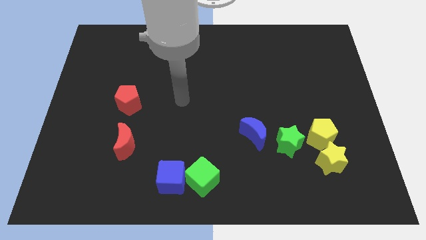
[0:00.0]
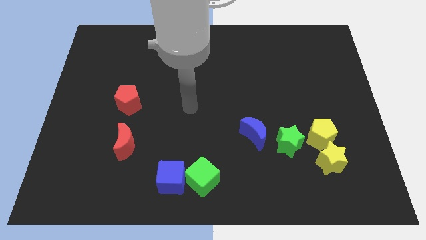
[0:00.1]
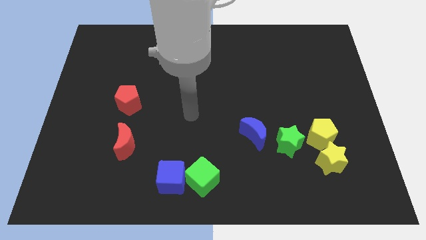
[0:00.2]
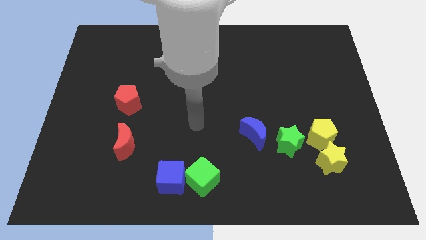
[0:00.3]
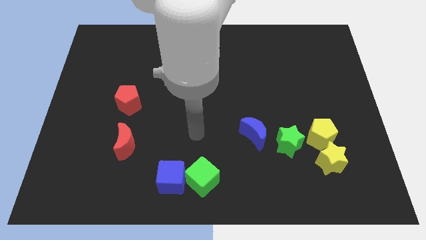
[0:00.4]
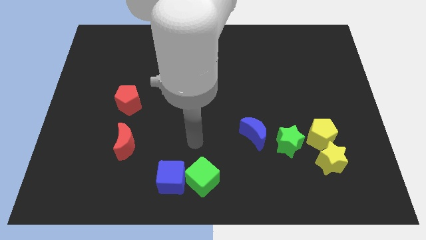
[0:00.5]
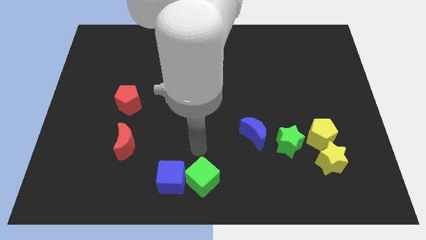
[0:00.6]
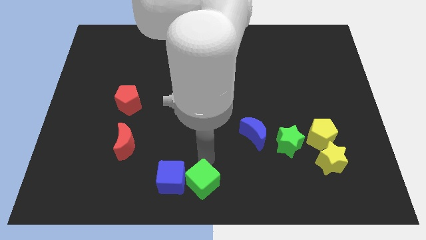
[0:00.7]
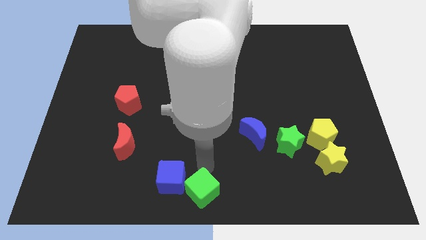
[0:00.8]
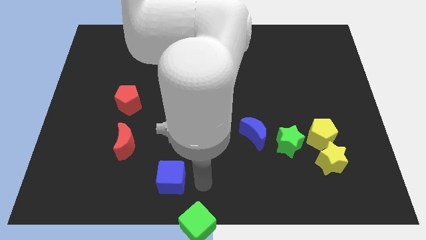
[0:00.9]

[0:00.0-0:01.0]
move the blue cube away from the green cube

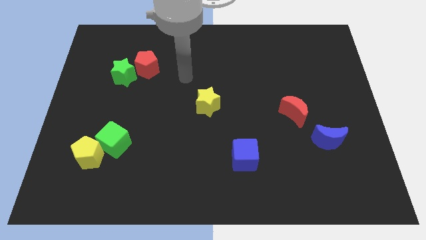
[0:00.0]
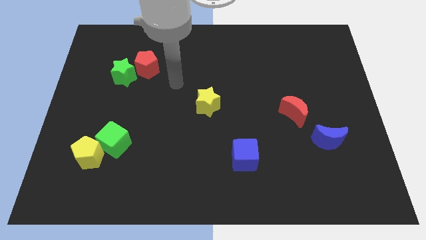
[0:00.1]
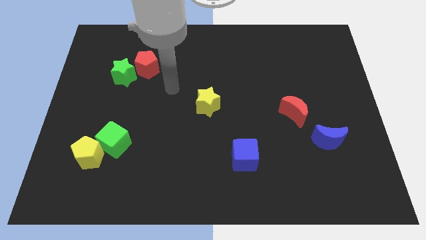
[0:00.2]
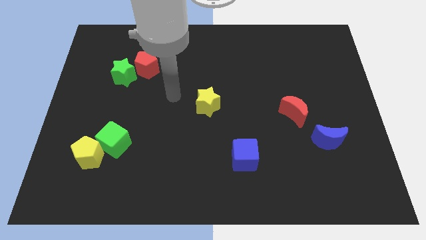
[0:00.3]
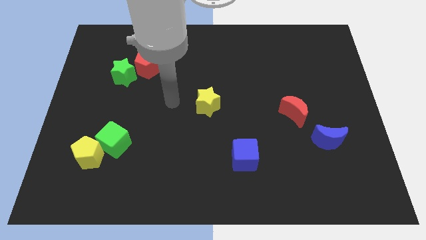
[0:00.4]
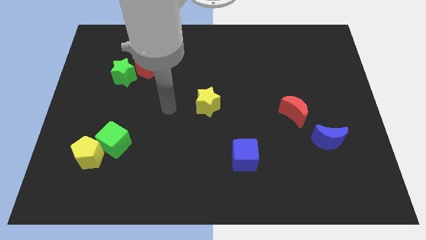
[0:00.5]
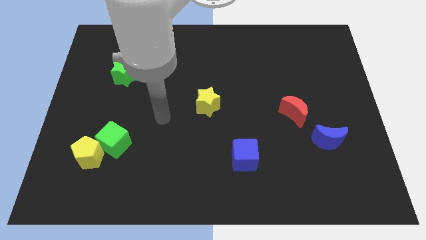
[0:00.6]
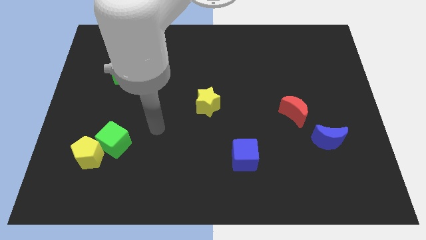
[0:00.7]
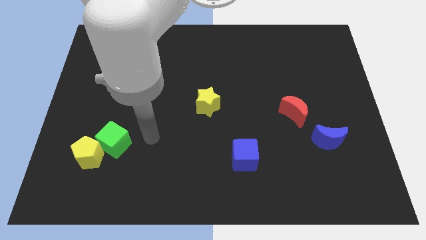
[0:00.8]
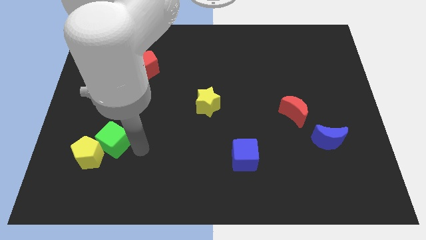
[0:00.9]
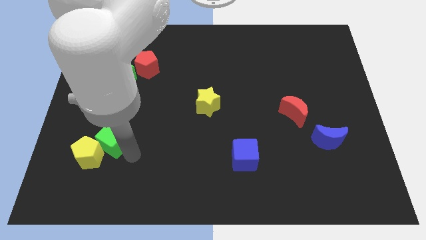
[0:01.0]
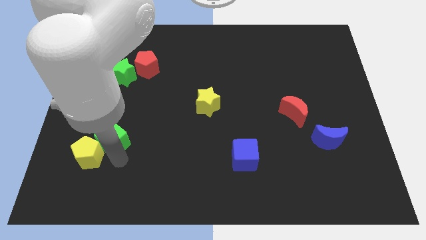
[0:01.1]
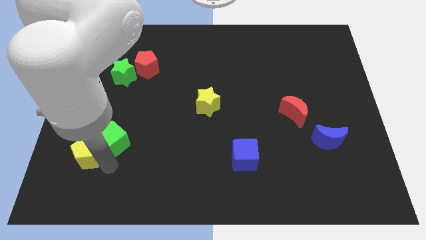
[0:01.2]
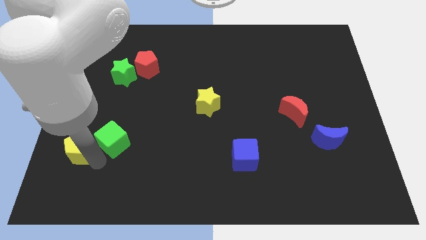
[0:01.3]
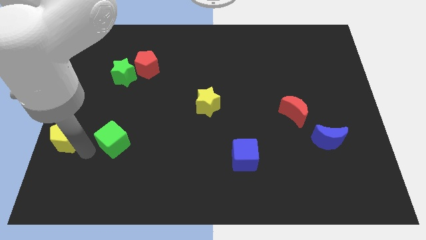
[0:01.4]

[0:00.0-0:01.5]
pull the green cube apart from the yellow pentagon

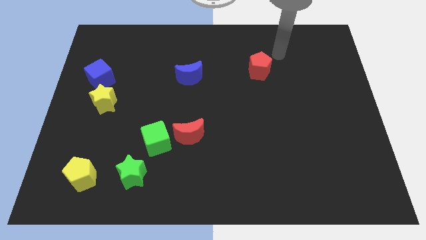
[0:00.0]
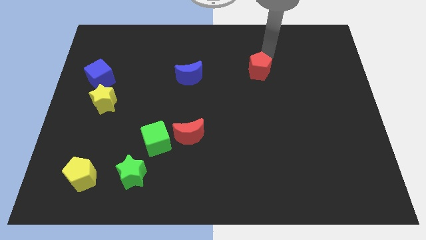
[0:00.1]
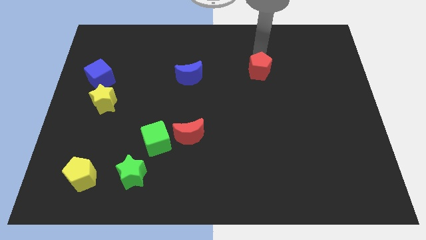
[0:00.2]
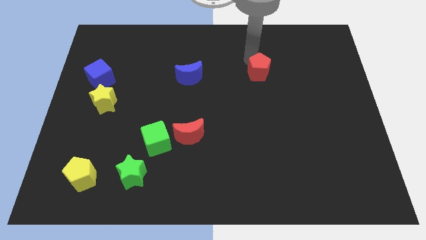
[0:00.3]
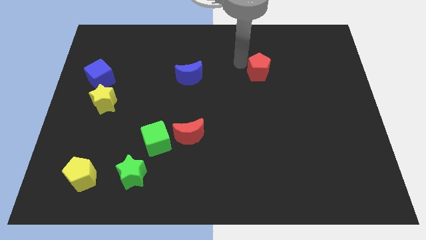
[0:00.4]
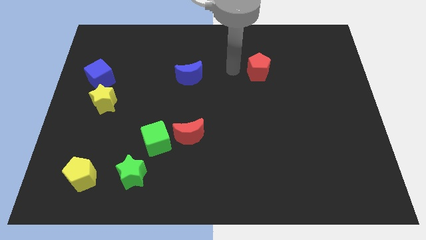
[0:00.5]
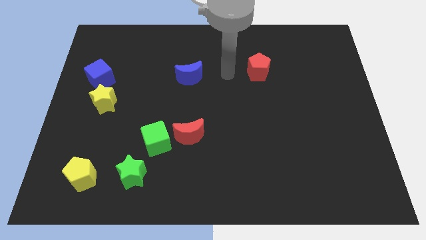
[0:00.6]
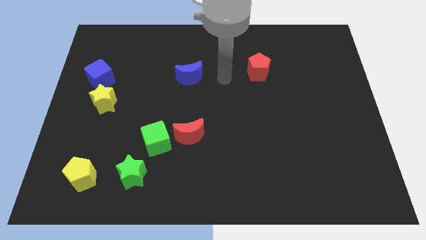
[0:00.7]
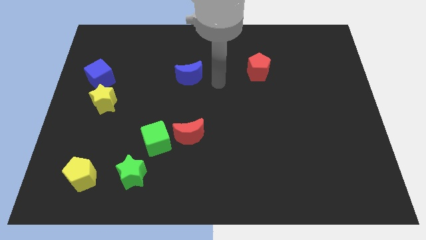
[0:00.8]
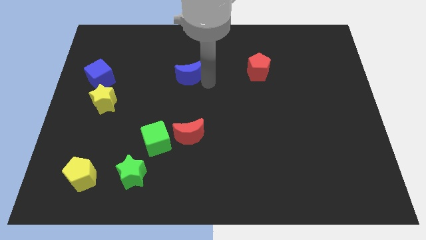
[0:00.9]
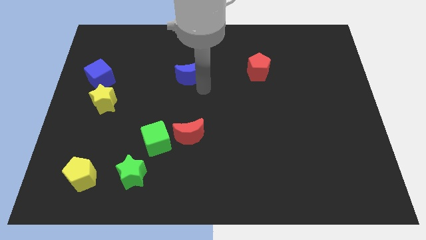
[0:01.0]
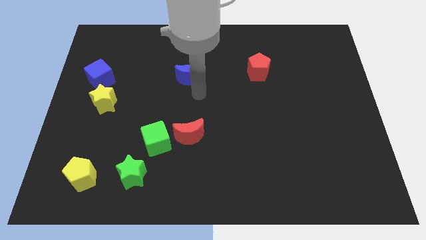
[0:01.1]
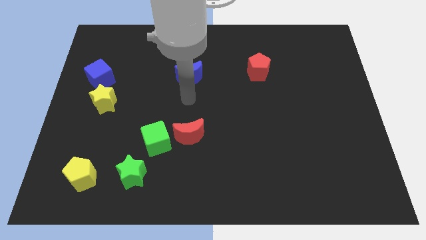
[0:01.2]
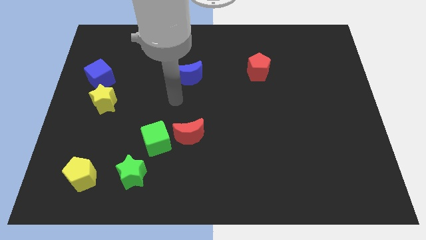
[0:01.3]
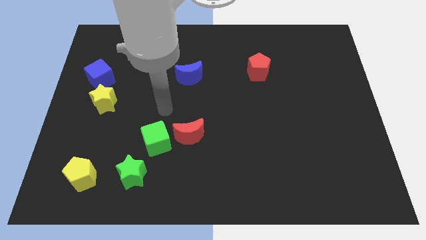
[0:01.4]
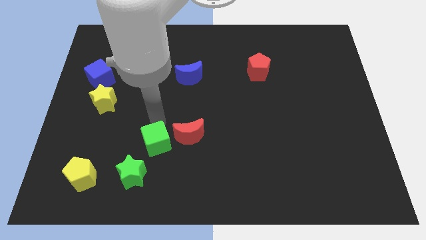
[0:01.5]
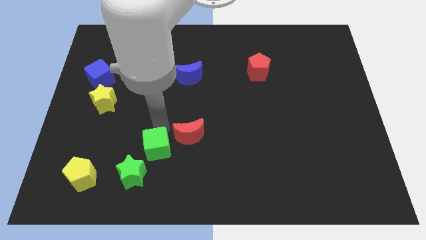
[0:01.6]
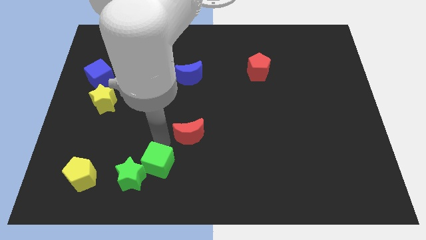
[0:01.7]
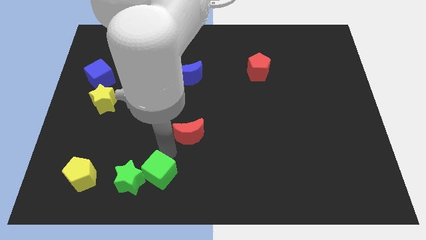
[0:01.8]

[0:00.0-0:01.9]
move the red moon away from the green cube

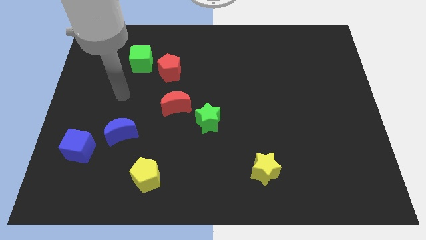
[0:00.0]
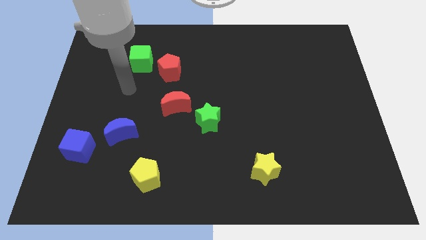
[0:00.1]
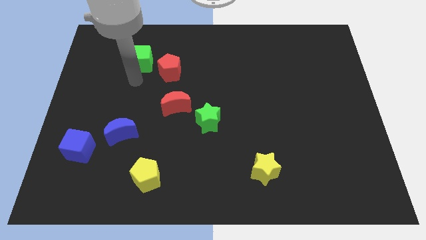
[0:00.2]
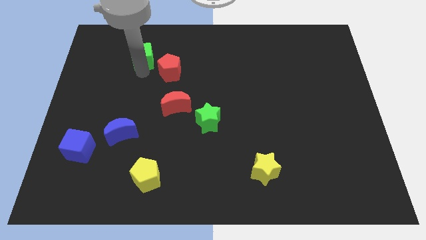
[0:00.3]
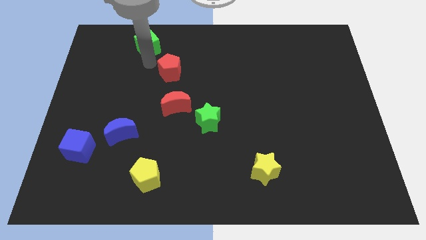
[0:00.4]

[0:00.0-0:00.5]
separate the red pentagon from the green cube

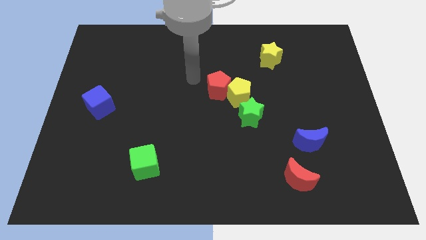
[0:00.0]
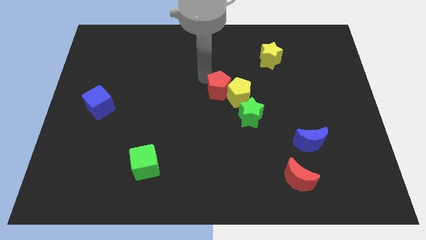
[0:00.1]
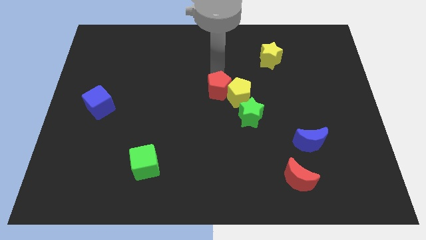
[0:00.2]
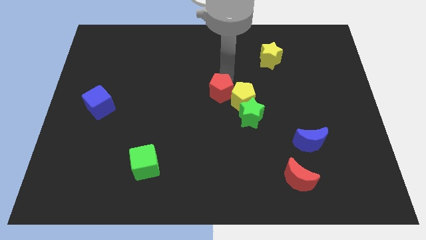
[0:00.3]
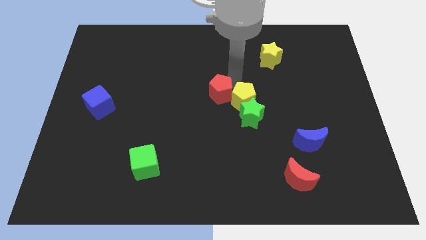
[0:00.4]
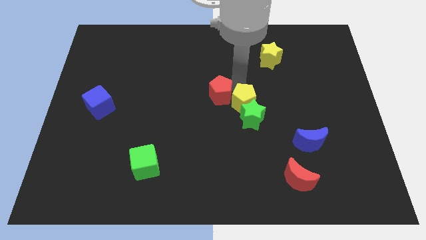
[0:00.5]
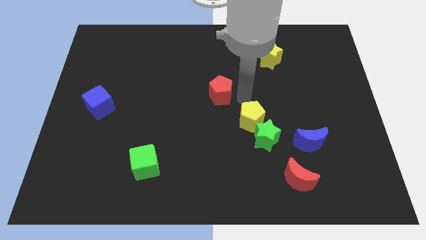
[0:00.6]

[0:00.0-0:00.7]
move the red pentagon away from the yellow pentagon

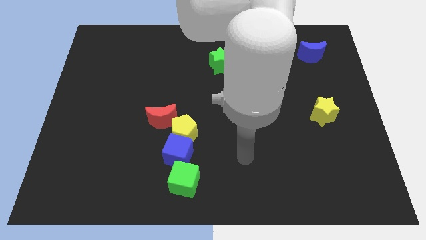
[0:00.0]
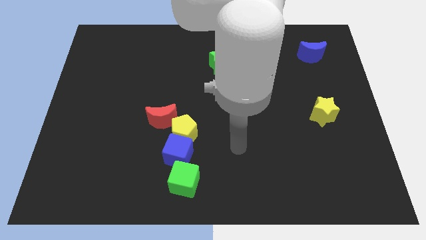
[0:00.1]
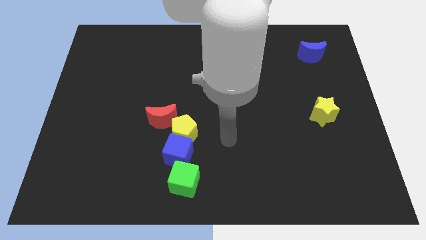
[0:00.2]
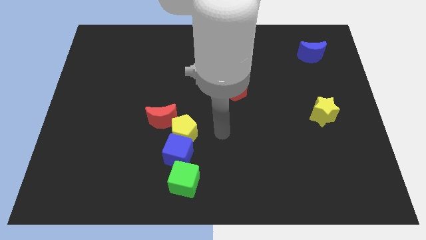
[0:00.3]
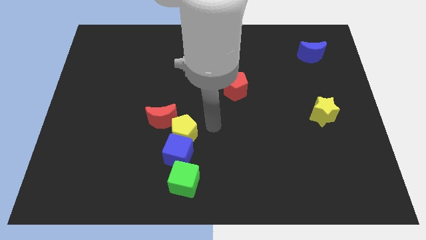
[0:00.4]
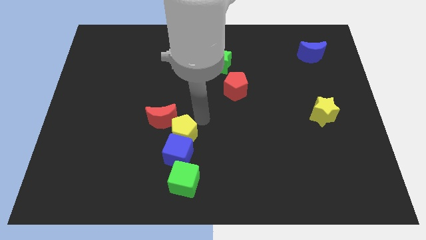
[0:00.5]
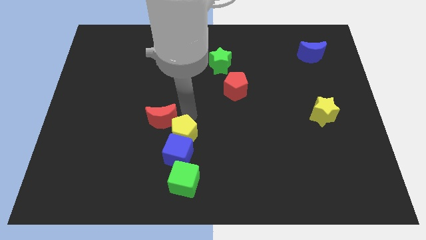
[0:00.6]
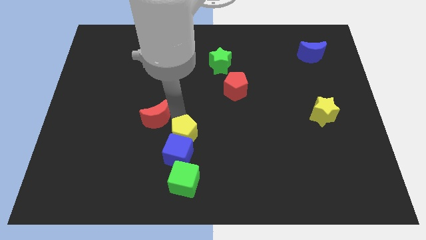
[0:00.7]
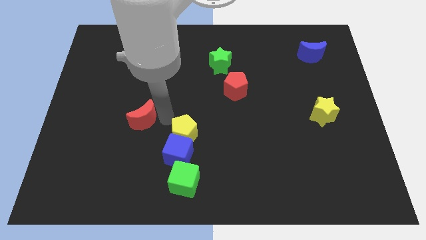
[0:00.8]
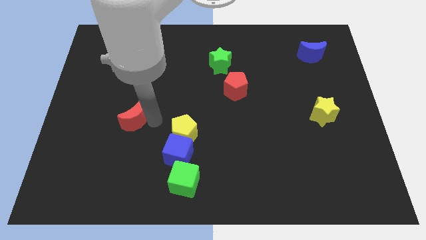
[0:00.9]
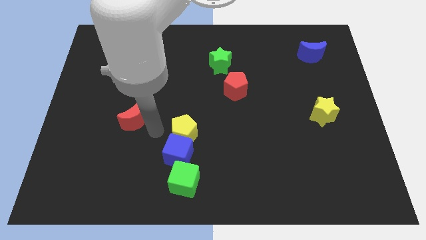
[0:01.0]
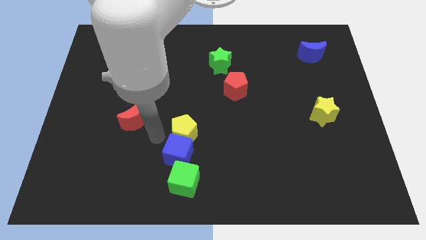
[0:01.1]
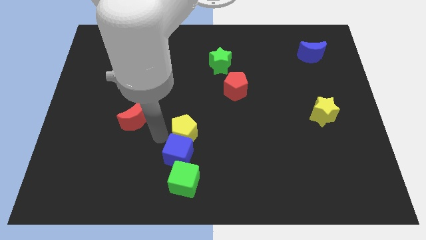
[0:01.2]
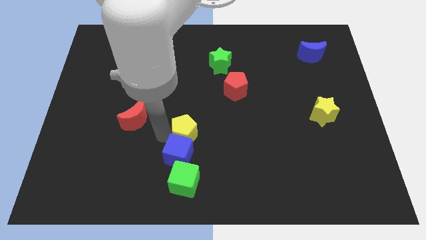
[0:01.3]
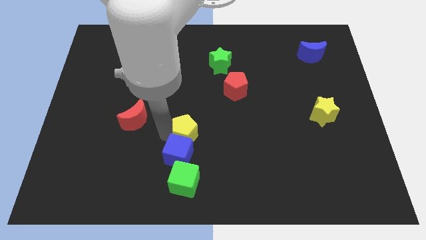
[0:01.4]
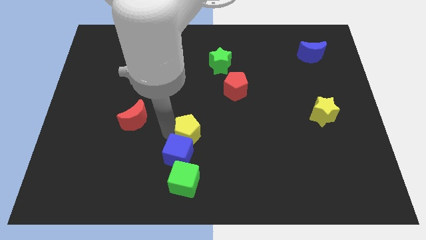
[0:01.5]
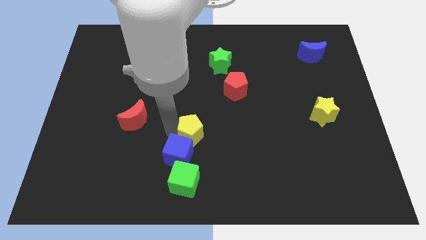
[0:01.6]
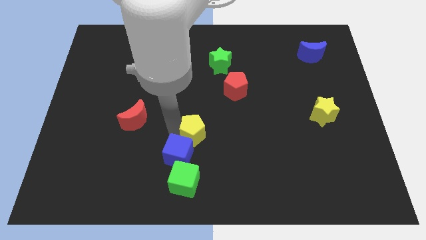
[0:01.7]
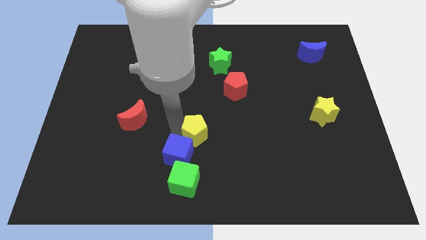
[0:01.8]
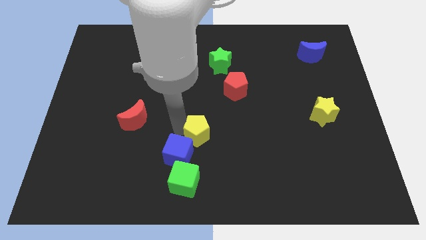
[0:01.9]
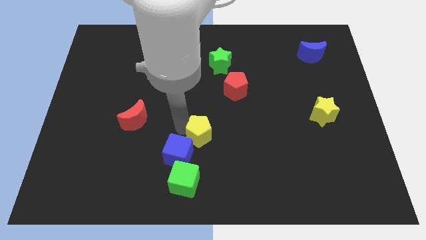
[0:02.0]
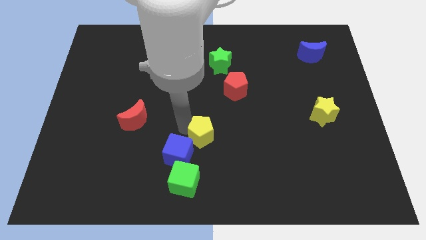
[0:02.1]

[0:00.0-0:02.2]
move the yellow pentagon away from the blue cube and red moon

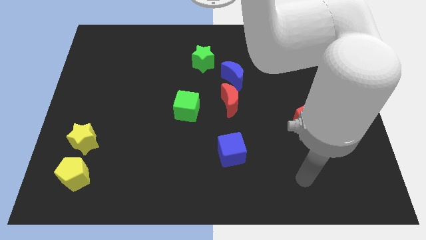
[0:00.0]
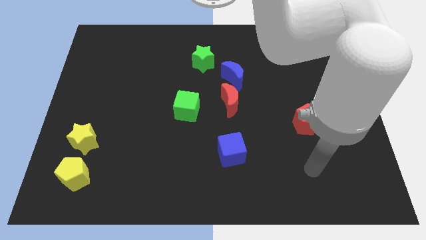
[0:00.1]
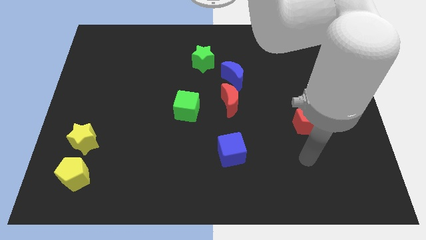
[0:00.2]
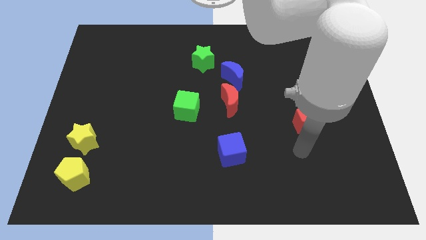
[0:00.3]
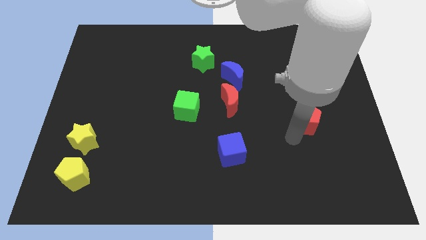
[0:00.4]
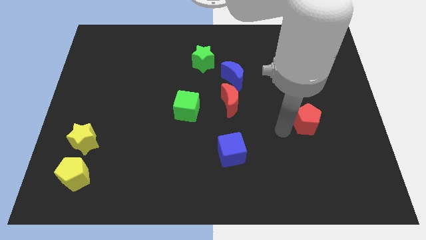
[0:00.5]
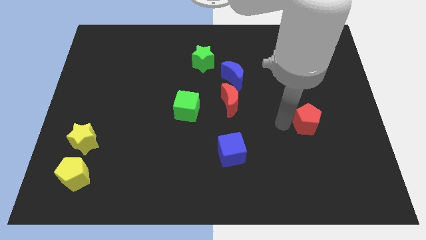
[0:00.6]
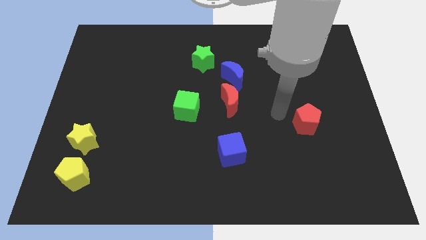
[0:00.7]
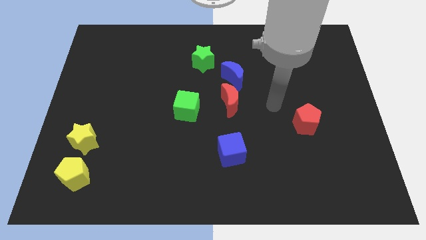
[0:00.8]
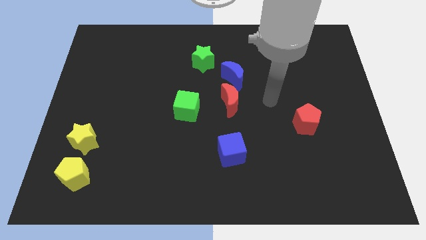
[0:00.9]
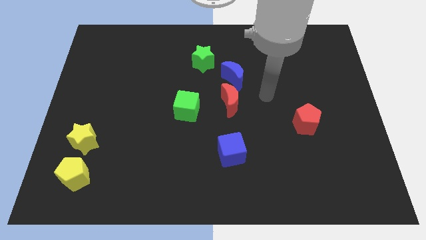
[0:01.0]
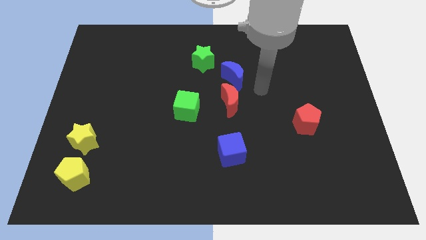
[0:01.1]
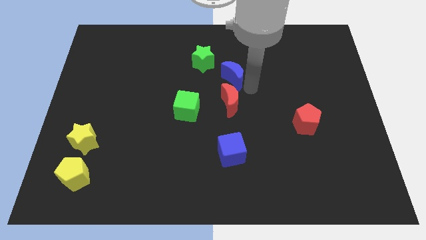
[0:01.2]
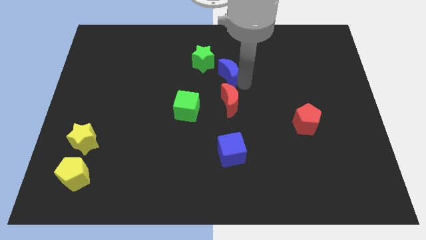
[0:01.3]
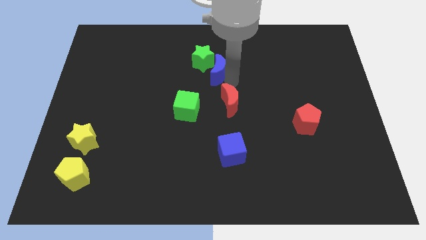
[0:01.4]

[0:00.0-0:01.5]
separate the red moon from the blue moon
